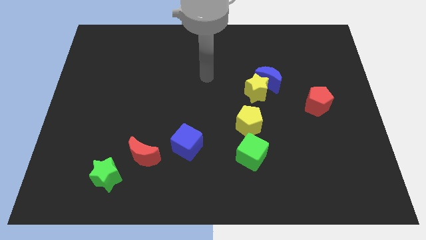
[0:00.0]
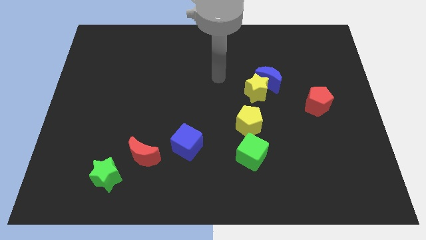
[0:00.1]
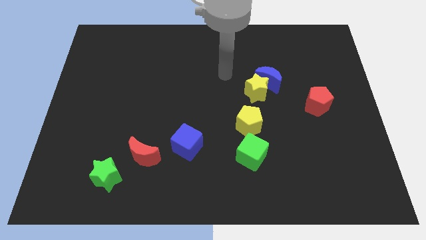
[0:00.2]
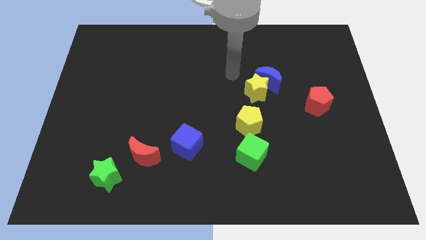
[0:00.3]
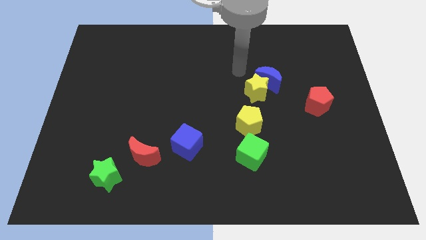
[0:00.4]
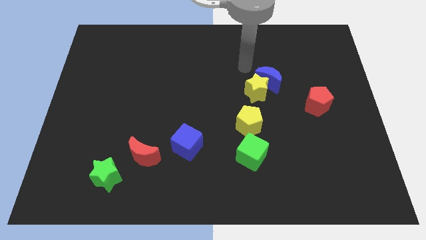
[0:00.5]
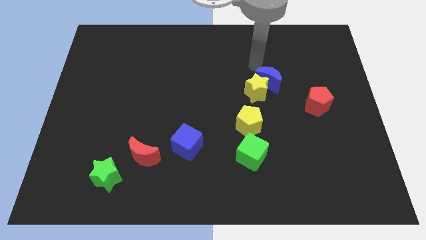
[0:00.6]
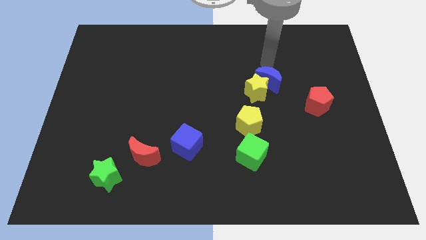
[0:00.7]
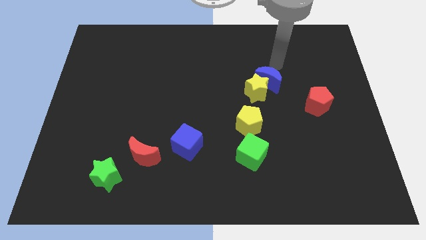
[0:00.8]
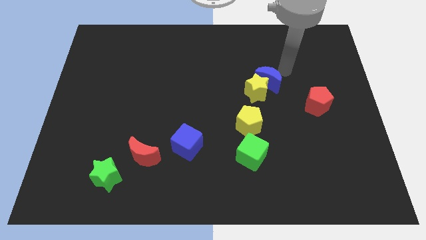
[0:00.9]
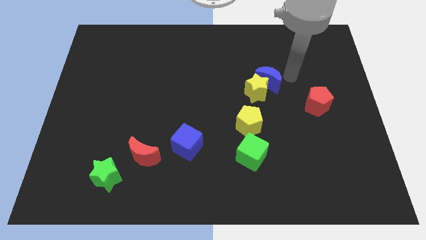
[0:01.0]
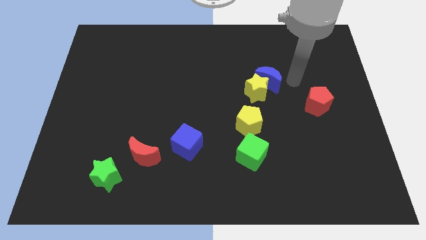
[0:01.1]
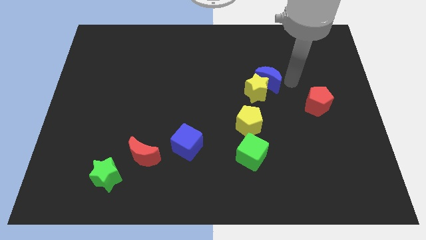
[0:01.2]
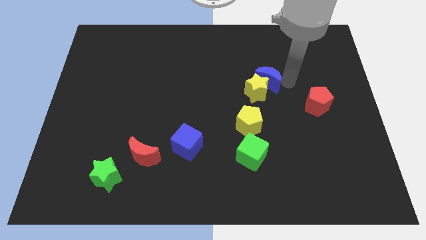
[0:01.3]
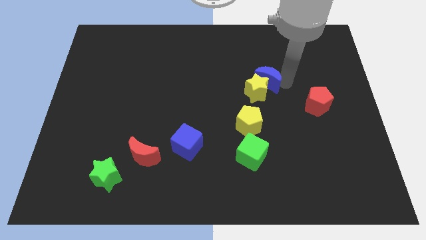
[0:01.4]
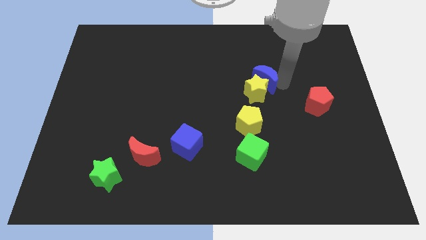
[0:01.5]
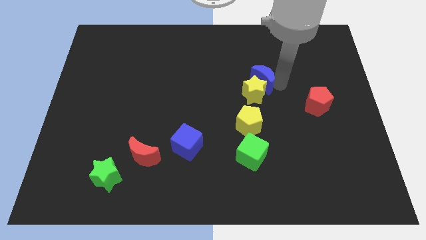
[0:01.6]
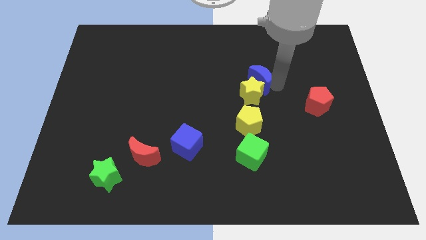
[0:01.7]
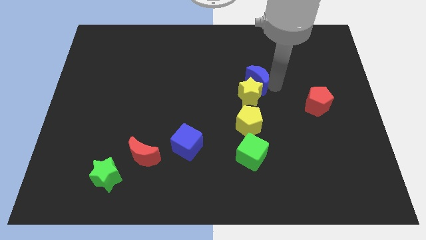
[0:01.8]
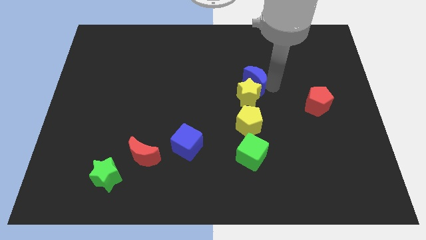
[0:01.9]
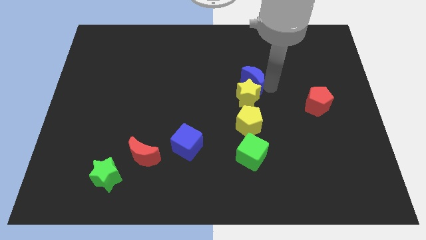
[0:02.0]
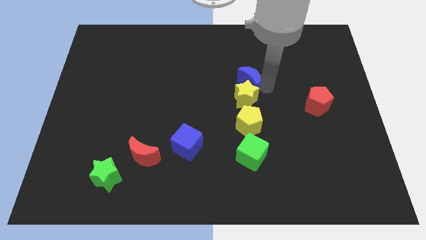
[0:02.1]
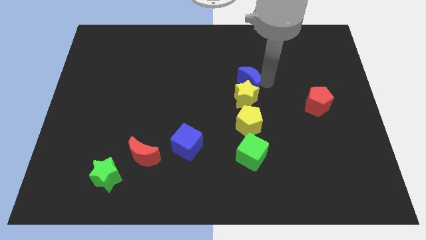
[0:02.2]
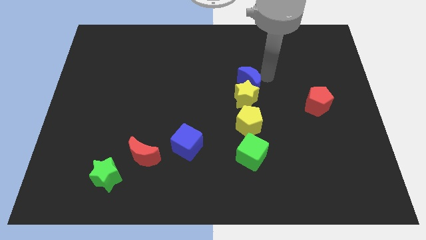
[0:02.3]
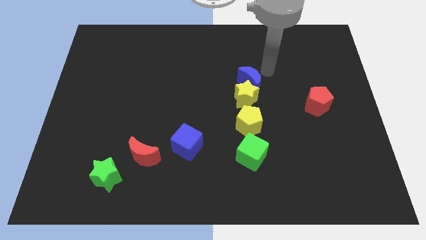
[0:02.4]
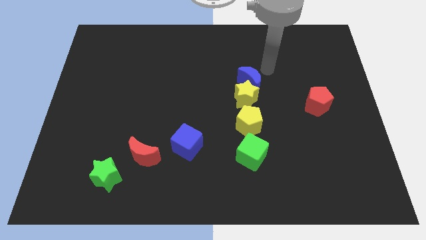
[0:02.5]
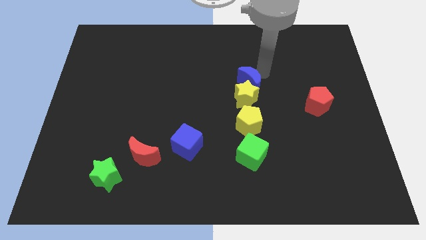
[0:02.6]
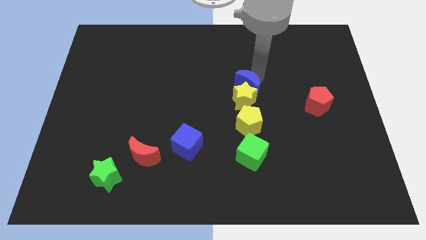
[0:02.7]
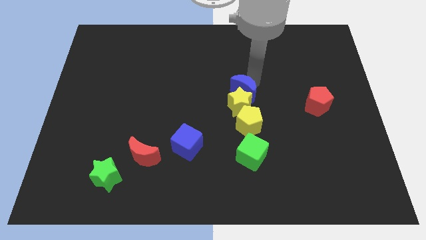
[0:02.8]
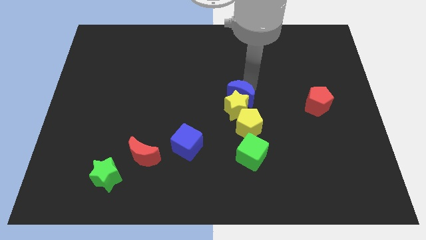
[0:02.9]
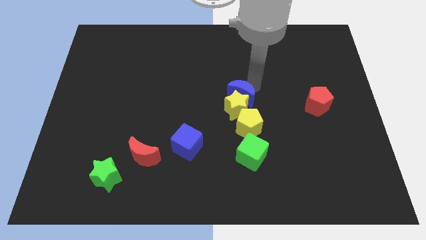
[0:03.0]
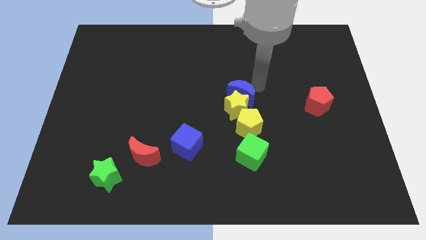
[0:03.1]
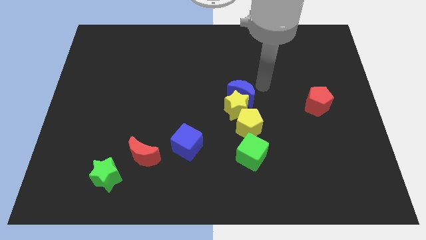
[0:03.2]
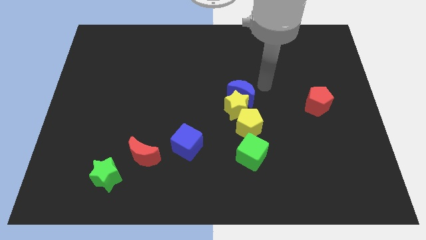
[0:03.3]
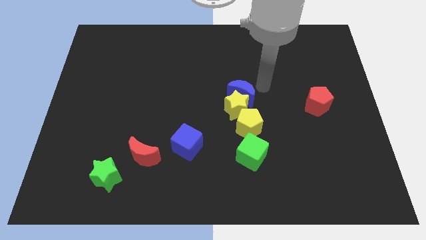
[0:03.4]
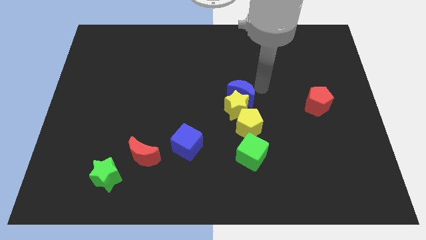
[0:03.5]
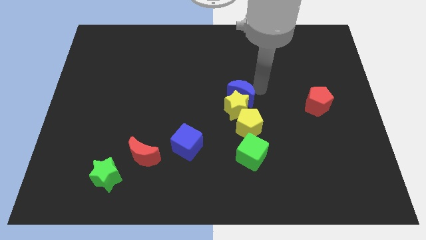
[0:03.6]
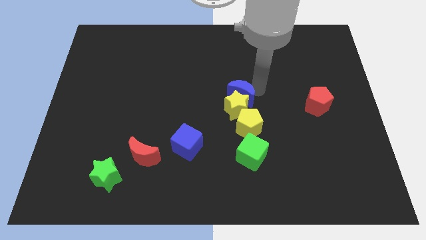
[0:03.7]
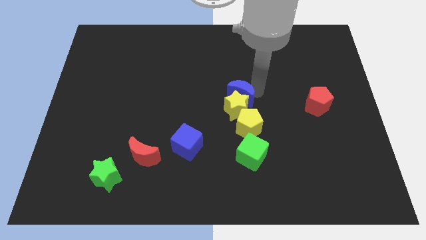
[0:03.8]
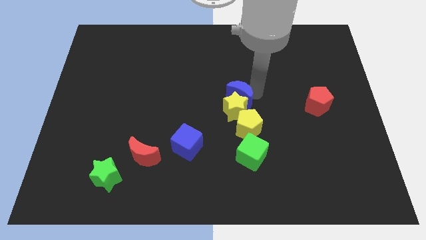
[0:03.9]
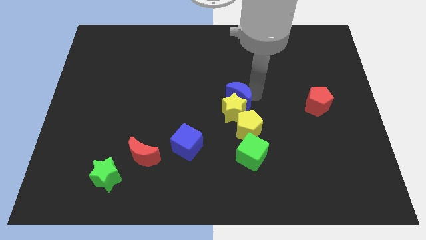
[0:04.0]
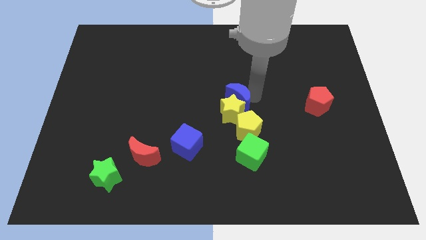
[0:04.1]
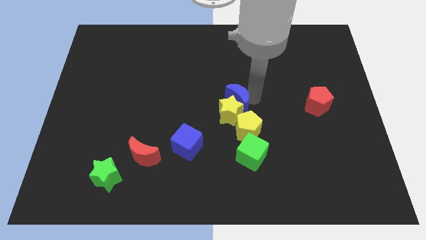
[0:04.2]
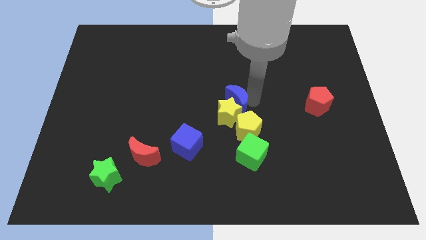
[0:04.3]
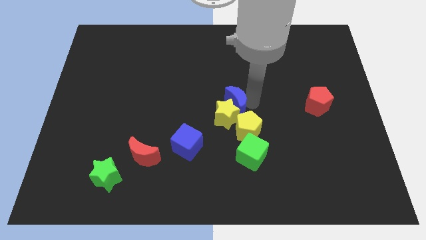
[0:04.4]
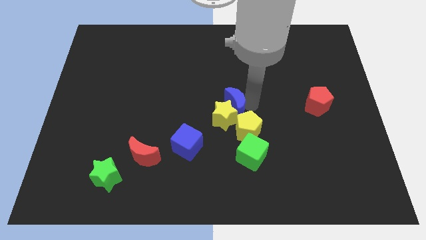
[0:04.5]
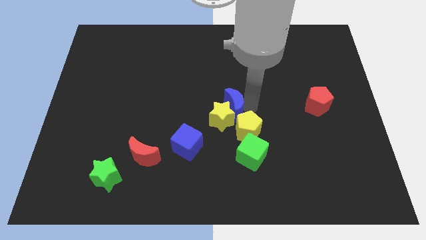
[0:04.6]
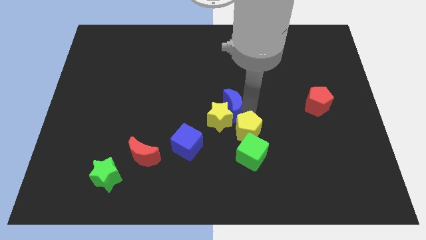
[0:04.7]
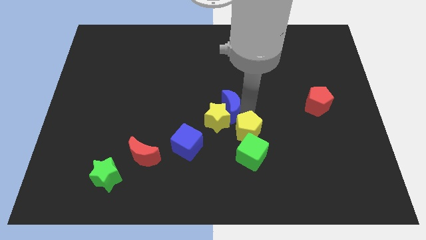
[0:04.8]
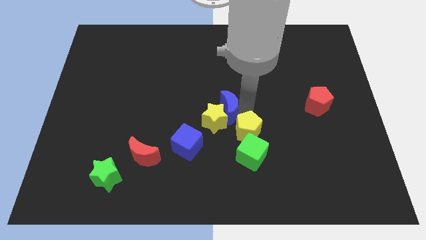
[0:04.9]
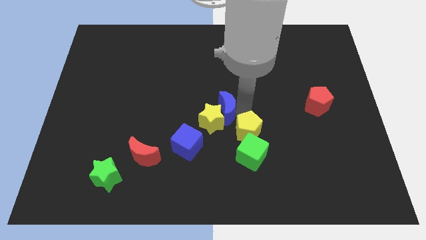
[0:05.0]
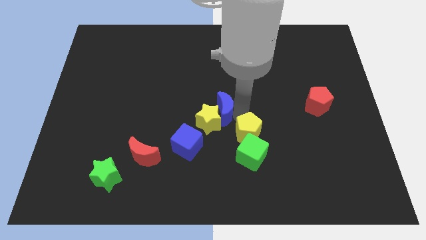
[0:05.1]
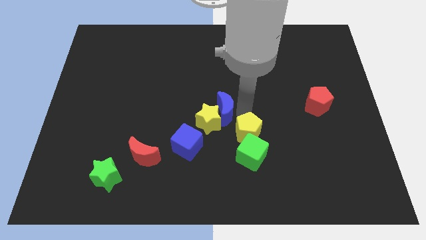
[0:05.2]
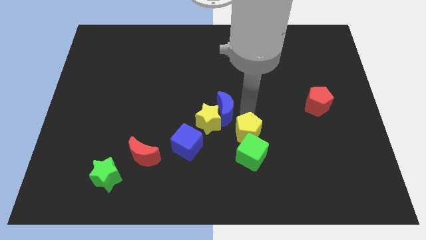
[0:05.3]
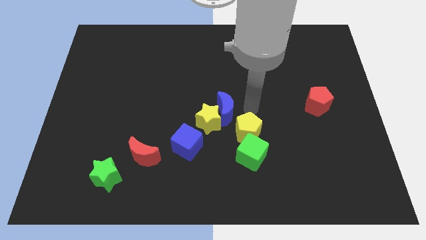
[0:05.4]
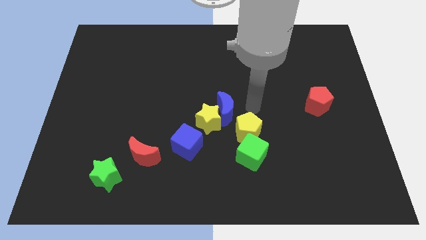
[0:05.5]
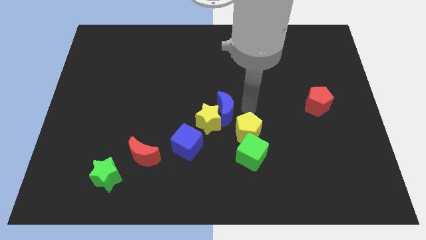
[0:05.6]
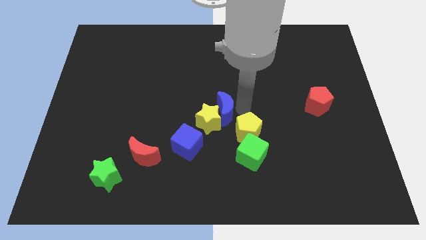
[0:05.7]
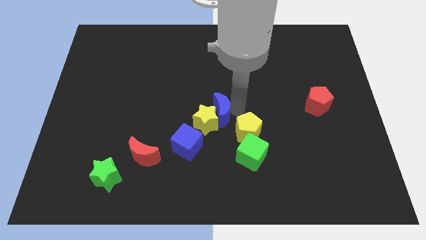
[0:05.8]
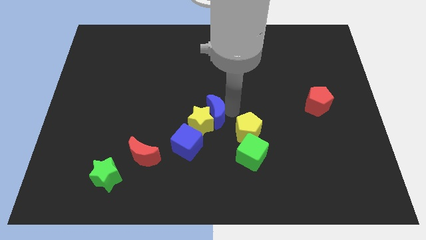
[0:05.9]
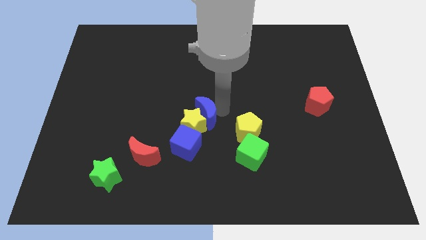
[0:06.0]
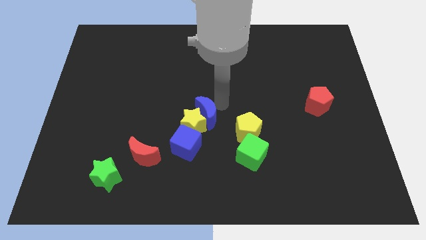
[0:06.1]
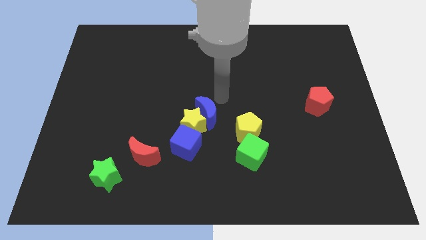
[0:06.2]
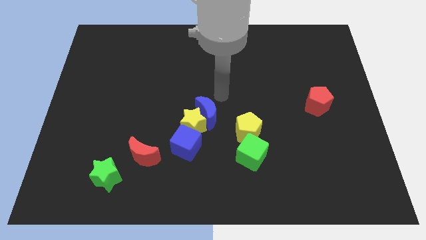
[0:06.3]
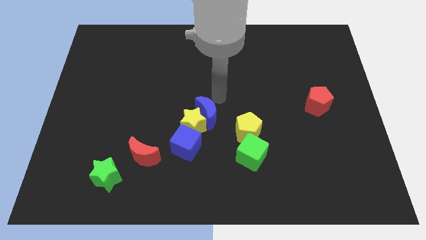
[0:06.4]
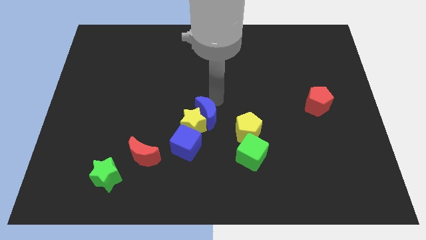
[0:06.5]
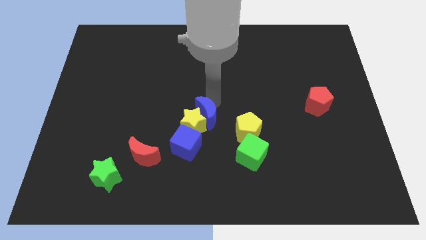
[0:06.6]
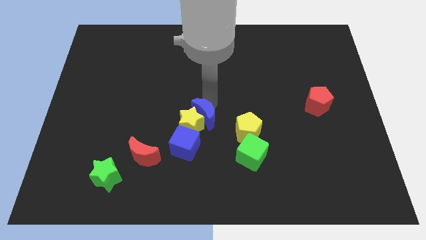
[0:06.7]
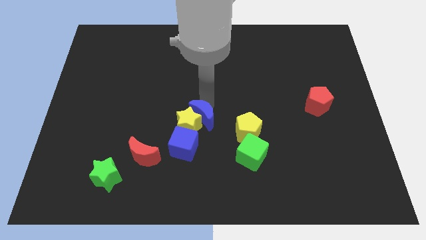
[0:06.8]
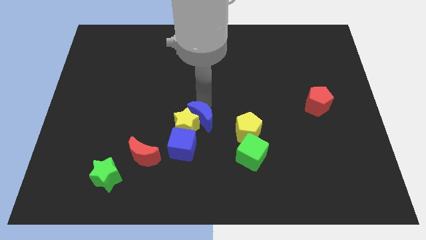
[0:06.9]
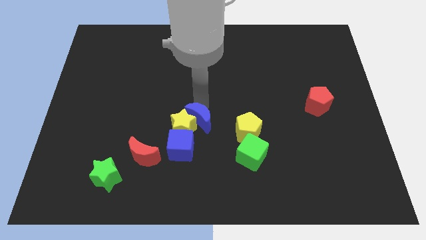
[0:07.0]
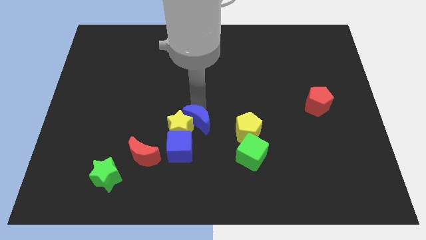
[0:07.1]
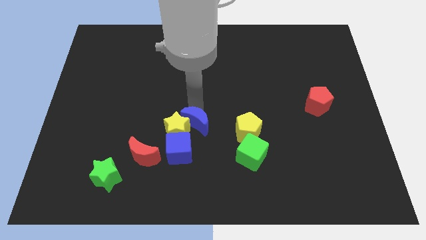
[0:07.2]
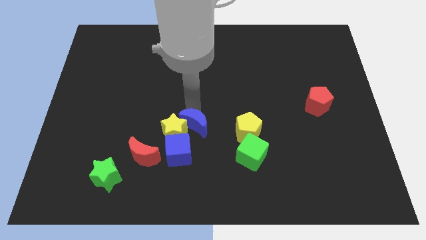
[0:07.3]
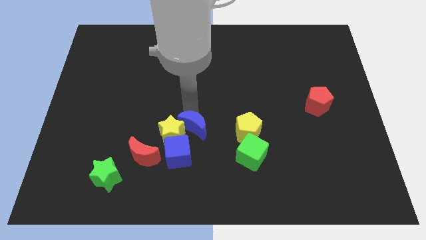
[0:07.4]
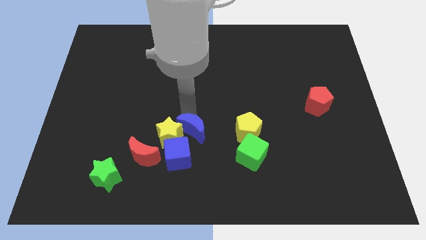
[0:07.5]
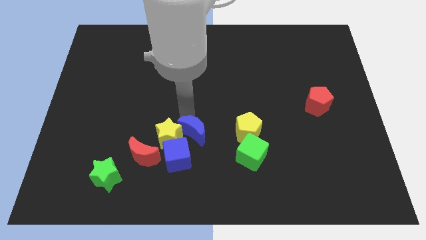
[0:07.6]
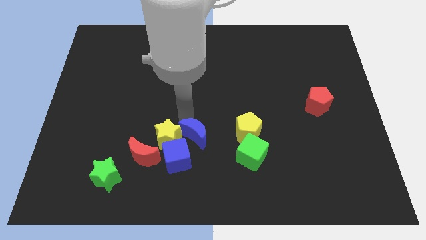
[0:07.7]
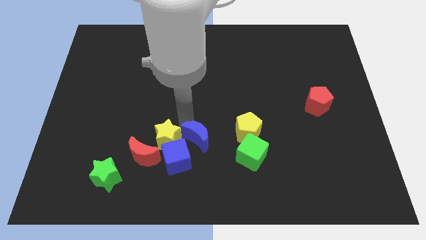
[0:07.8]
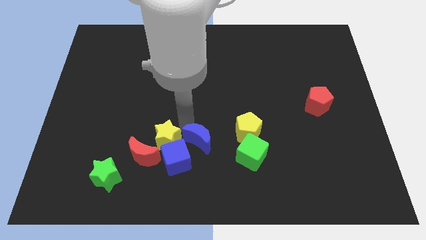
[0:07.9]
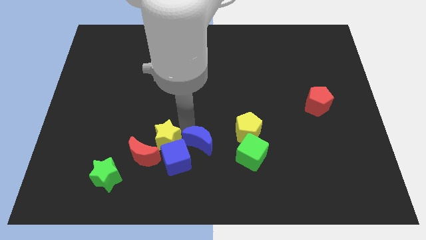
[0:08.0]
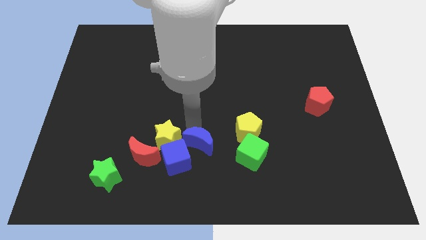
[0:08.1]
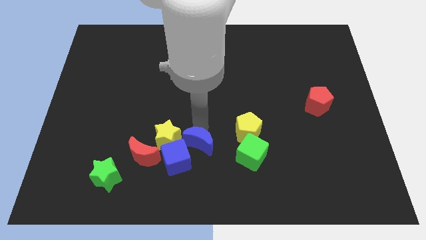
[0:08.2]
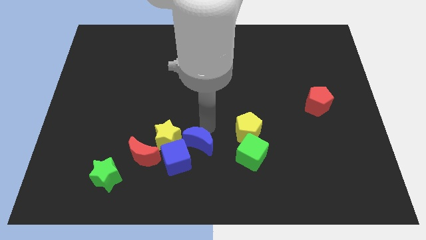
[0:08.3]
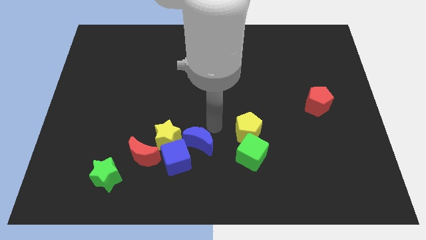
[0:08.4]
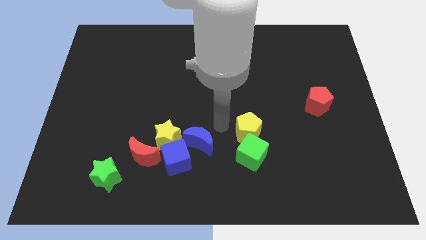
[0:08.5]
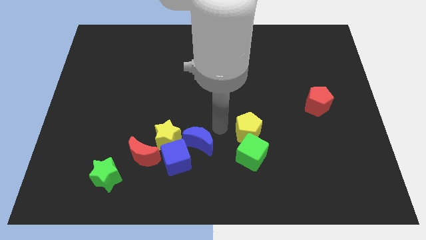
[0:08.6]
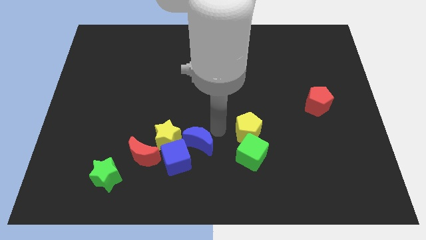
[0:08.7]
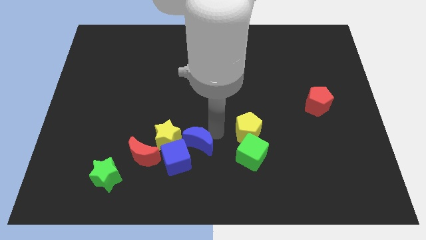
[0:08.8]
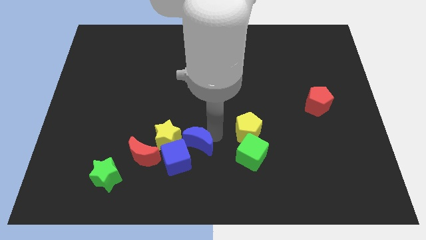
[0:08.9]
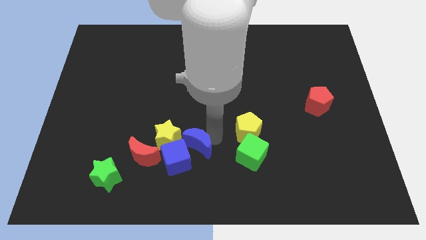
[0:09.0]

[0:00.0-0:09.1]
put the blue moon towards the blue cube
